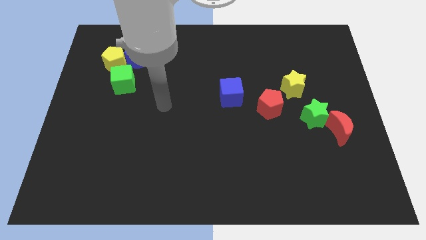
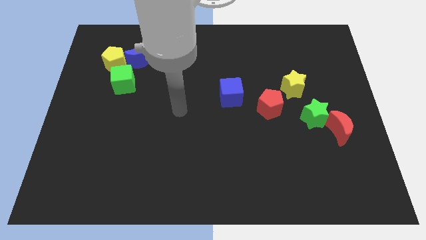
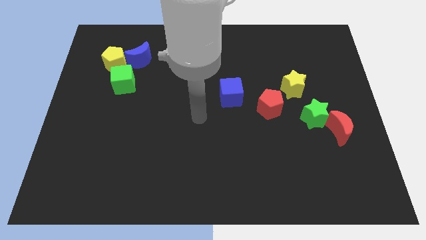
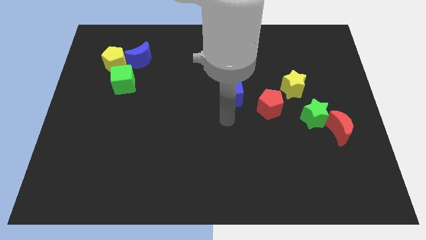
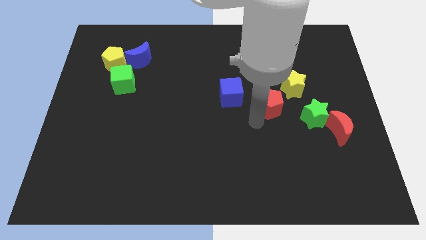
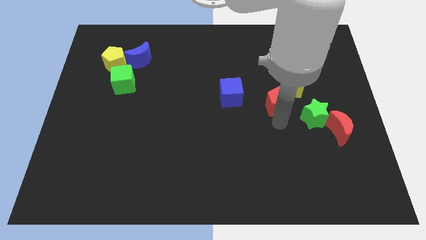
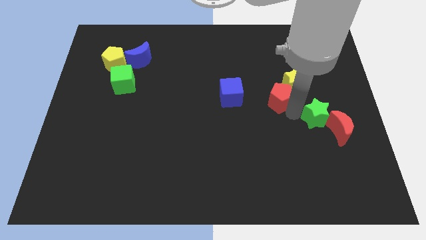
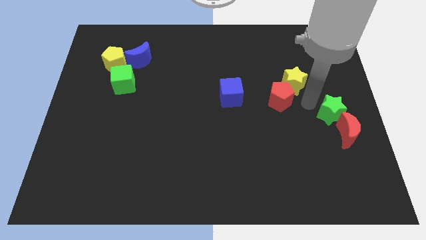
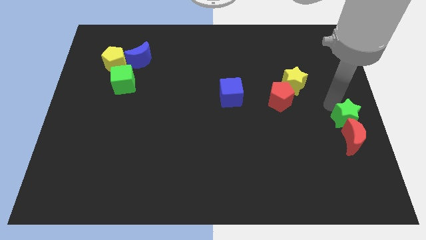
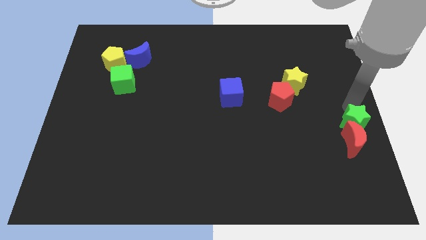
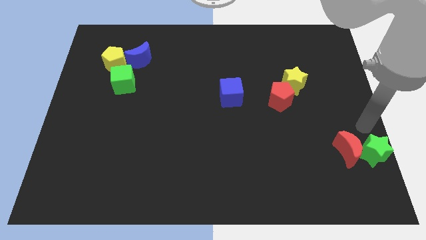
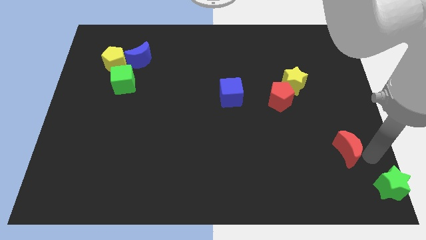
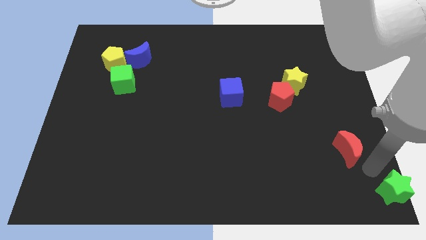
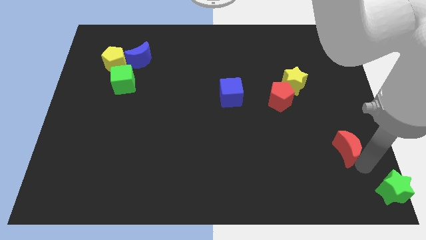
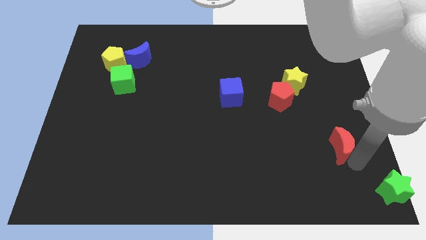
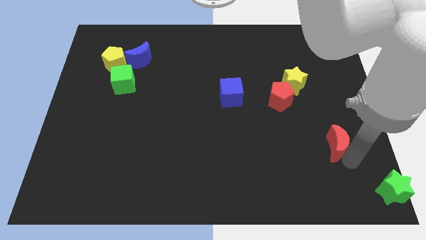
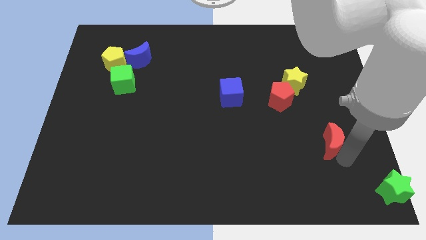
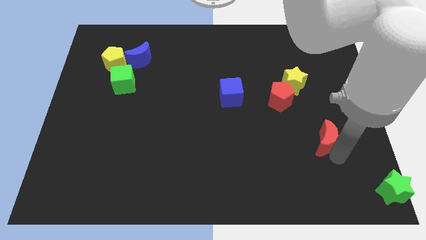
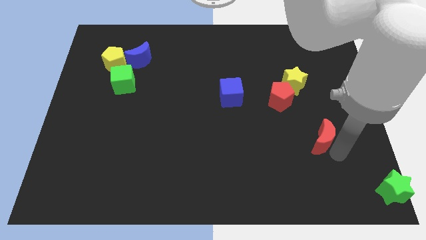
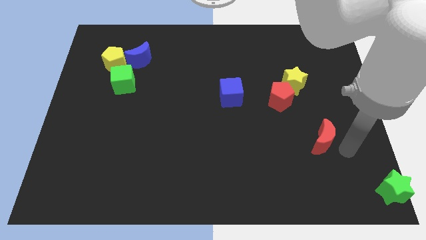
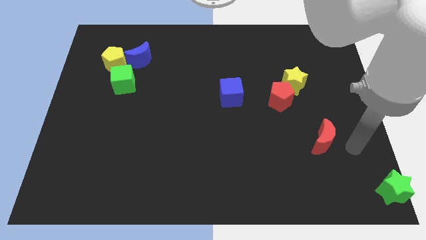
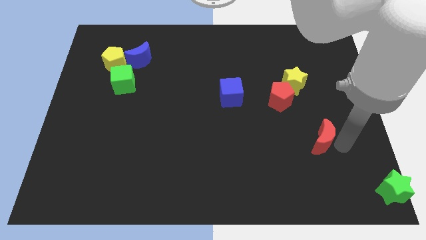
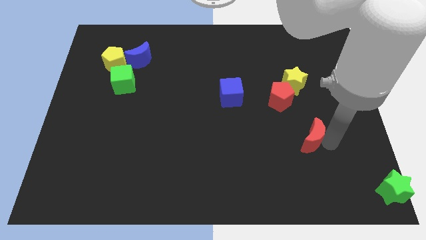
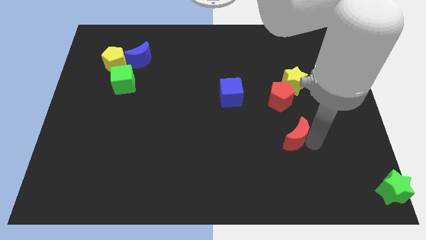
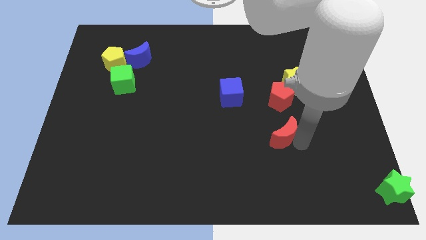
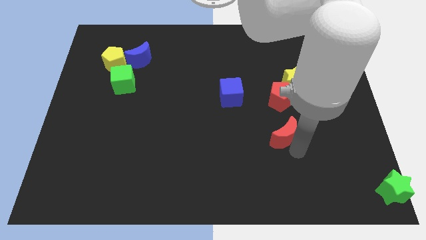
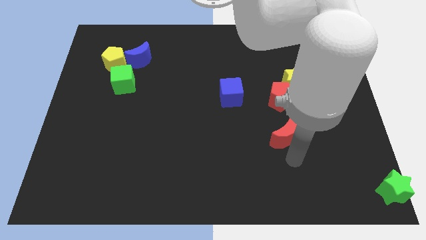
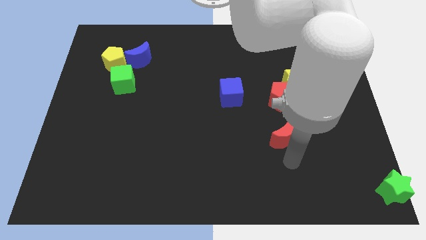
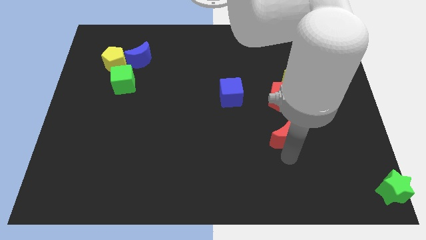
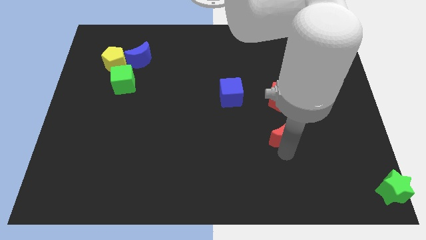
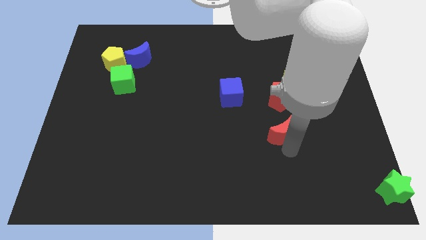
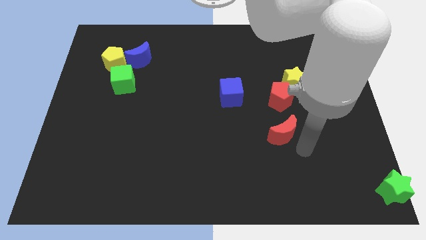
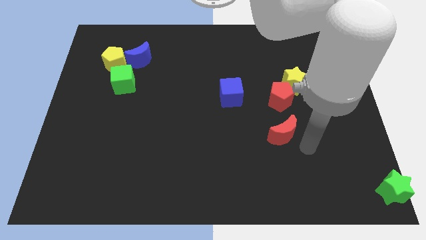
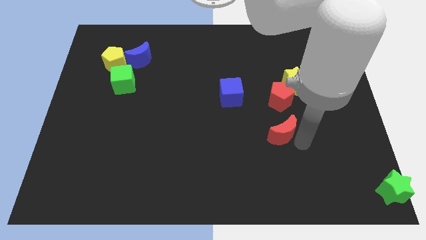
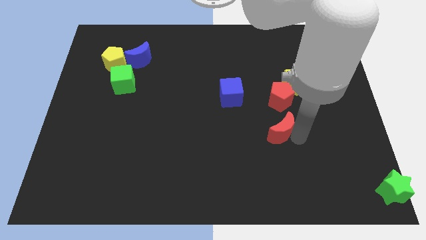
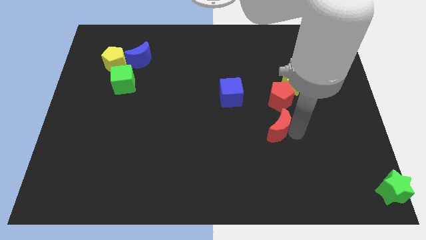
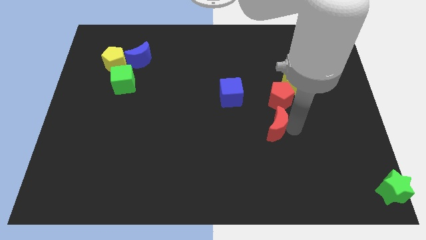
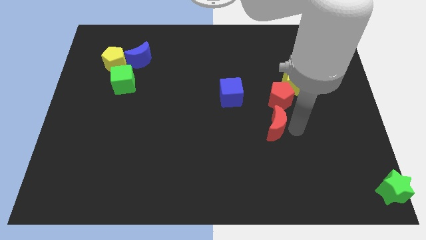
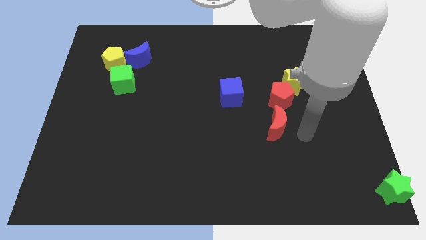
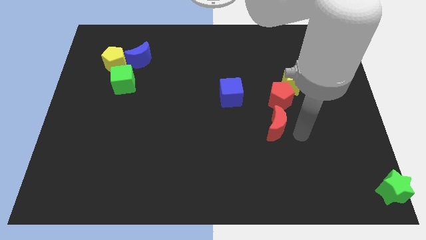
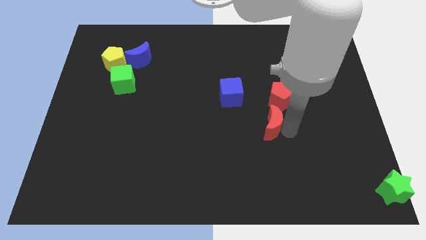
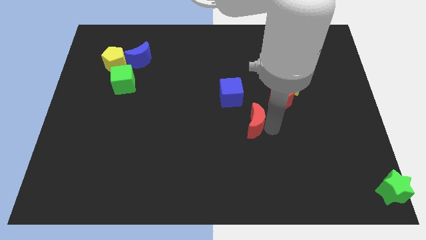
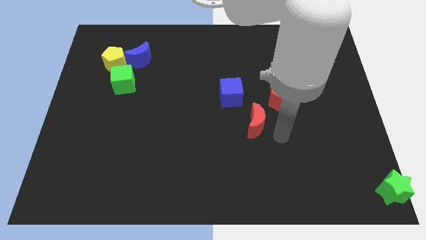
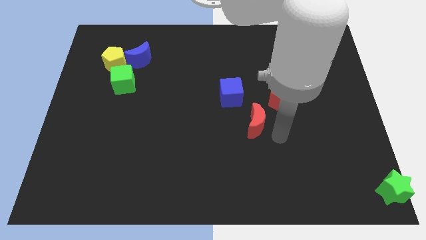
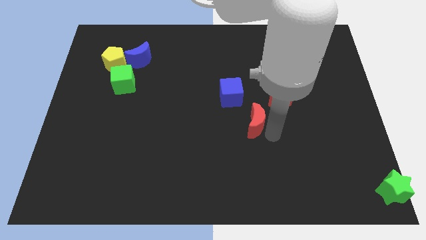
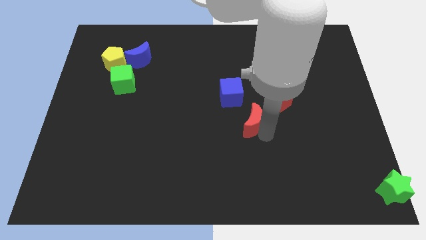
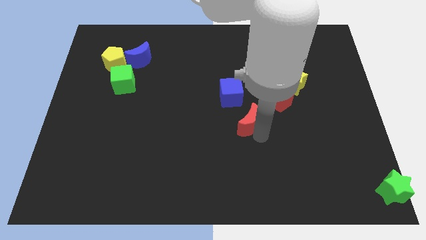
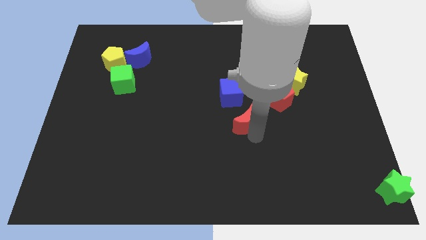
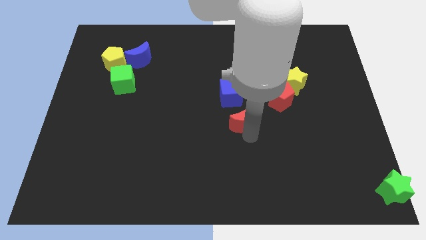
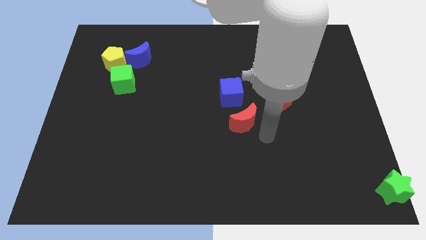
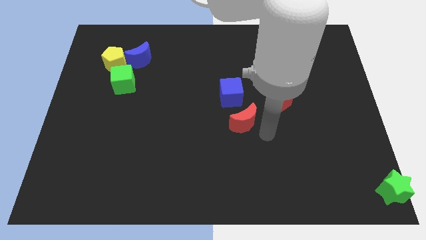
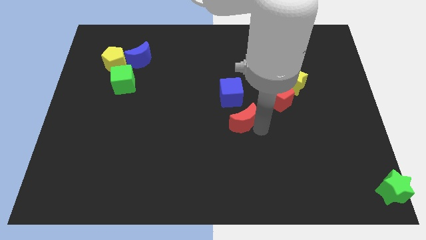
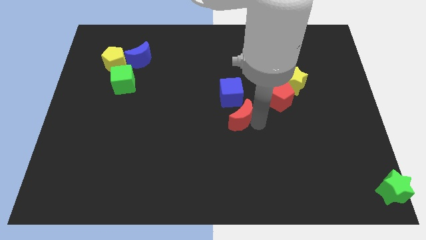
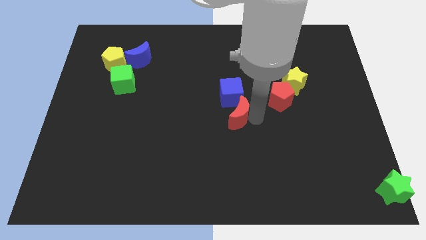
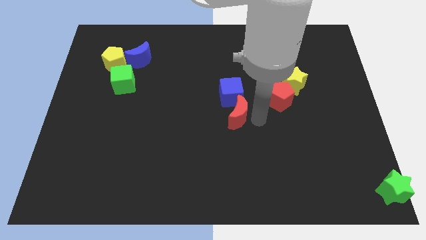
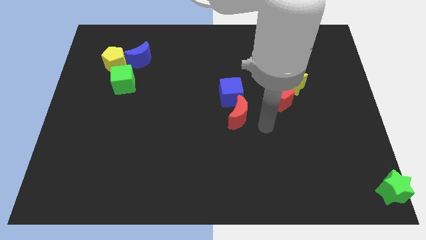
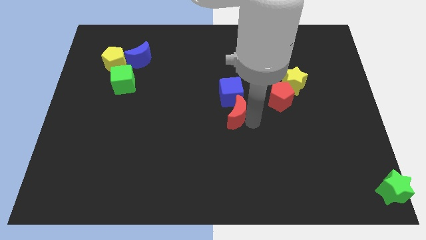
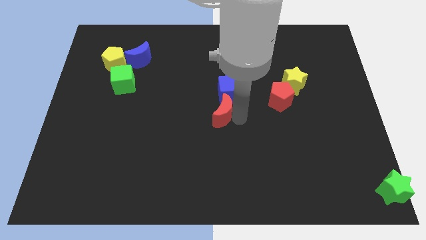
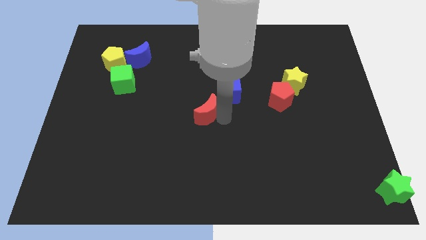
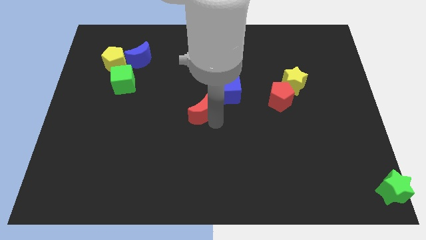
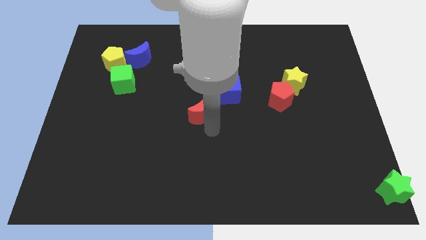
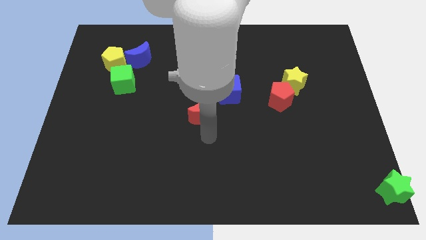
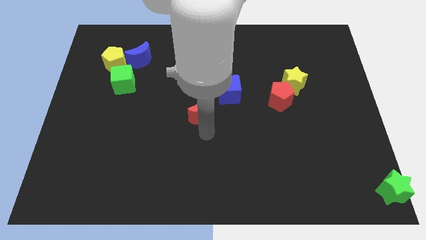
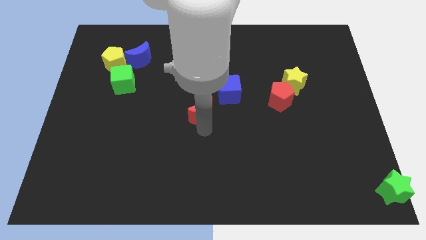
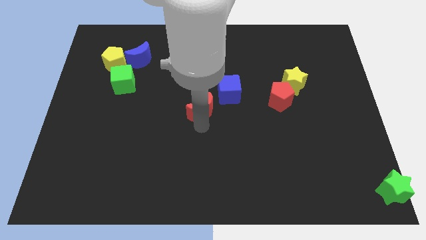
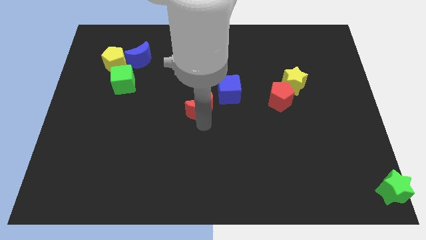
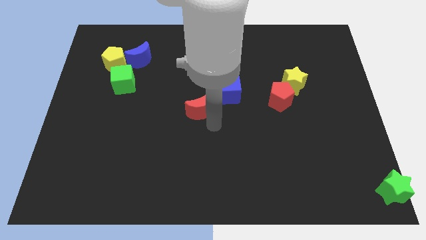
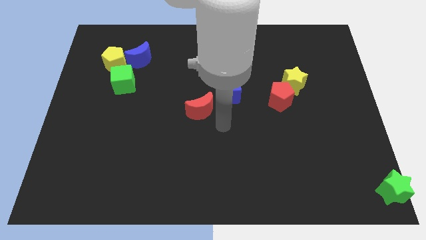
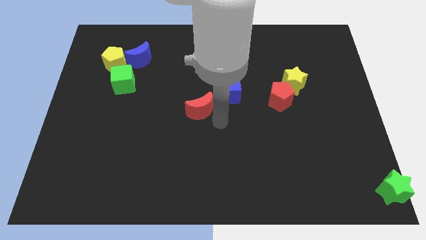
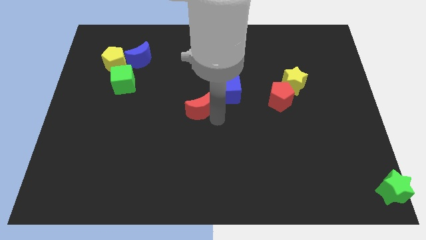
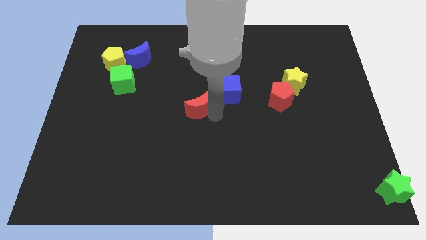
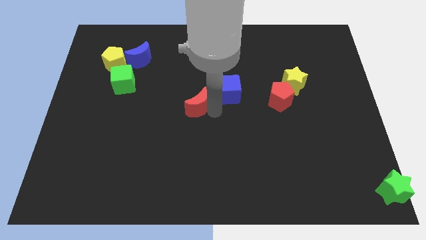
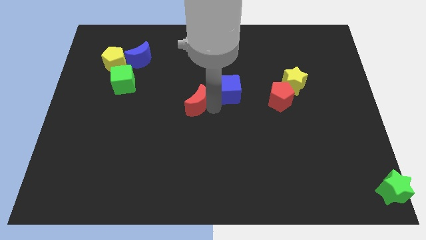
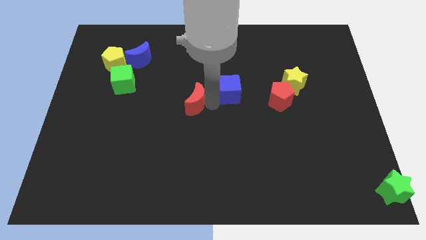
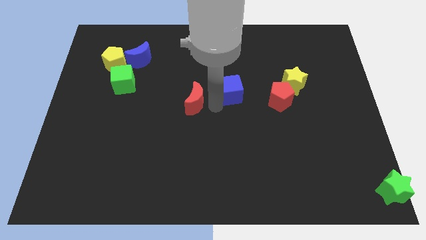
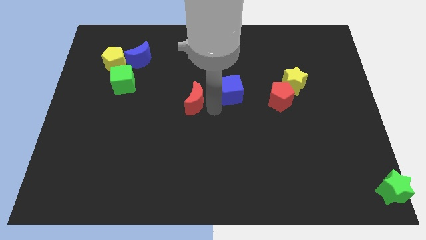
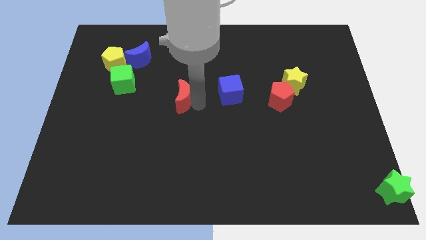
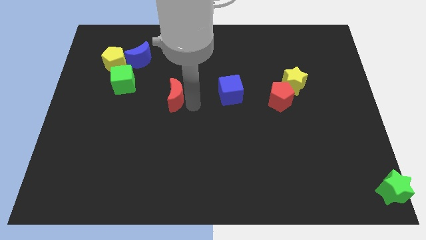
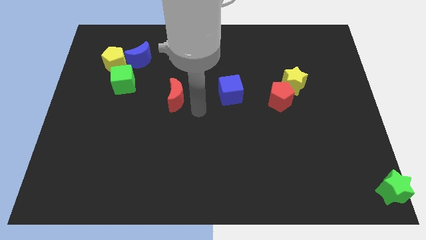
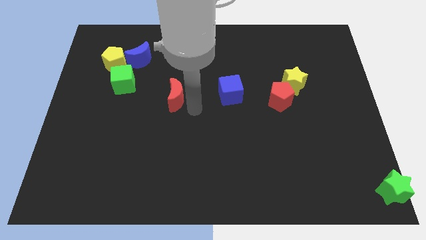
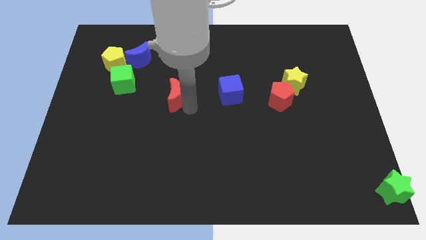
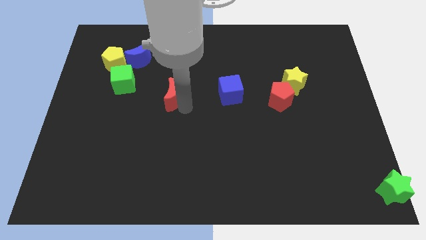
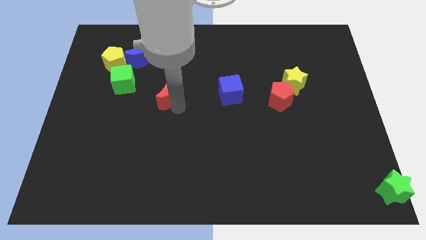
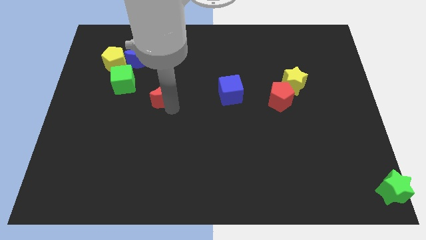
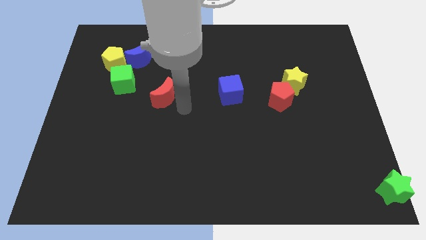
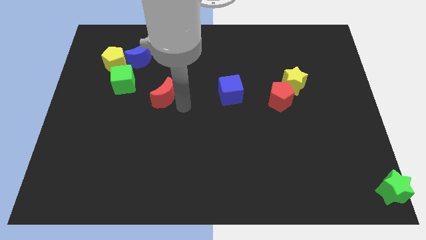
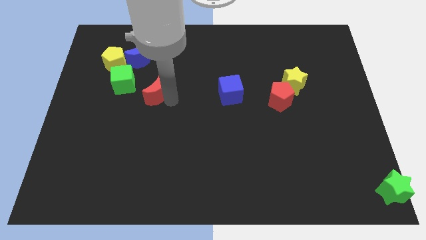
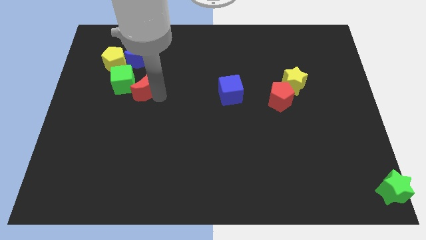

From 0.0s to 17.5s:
slide the red moon diagonally down and to the right of the yellow pentagon
